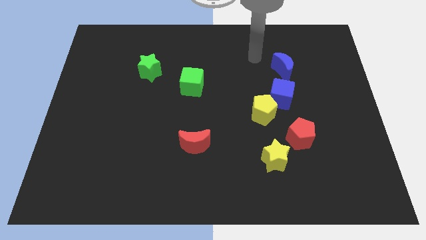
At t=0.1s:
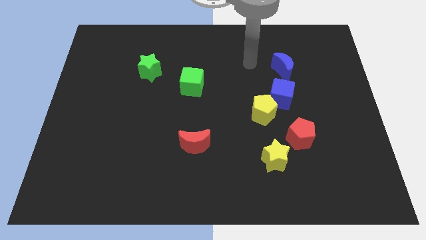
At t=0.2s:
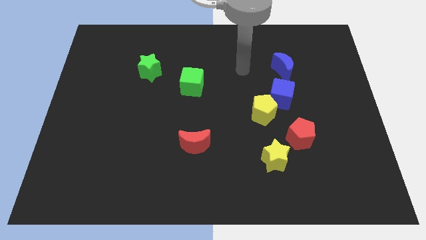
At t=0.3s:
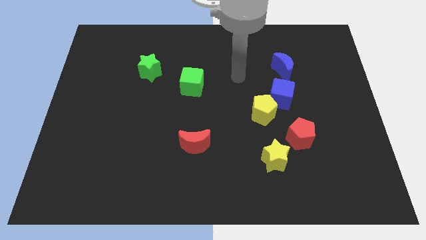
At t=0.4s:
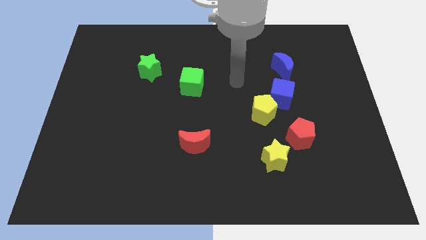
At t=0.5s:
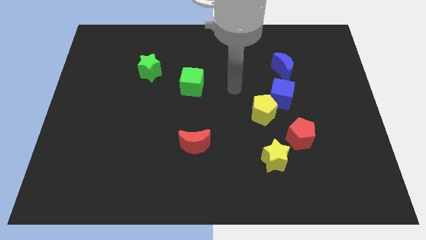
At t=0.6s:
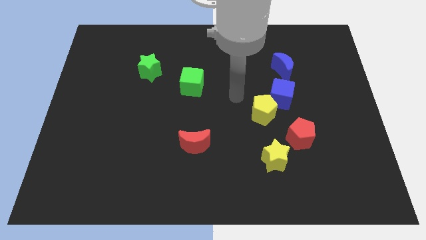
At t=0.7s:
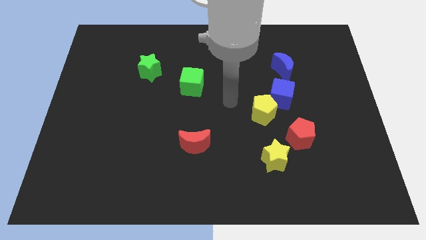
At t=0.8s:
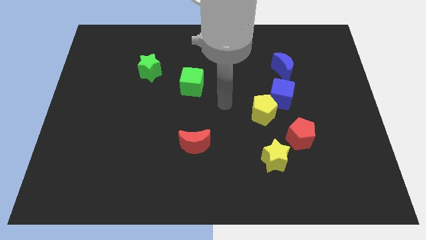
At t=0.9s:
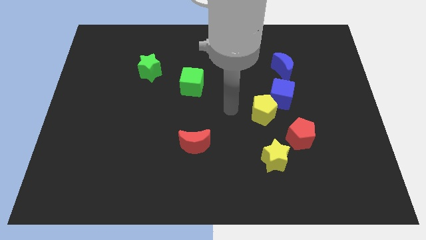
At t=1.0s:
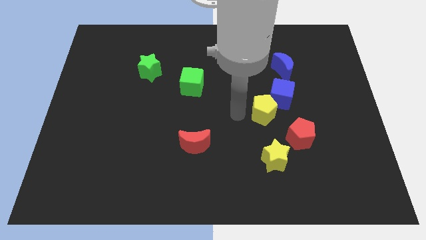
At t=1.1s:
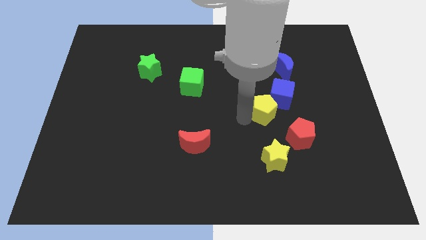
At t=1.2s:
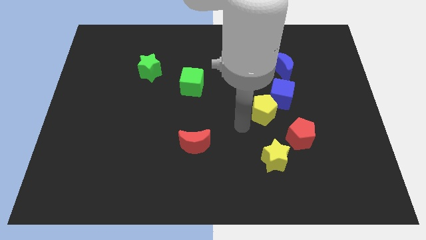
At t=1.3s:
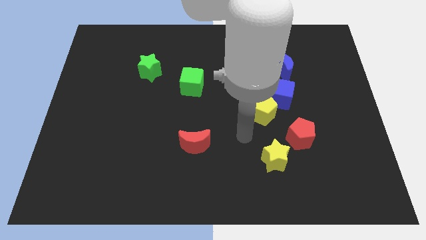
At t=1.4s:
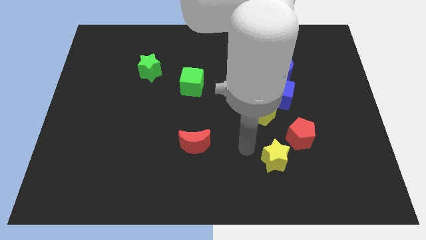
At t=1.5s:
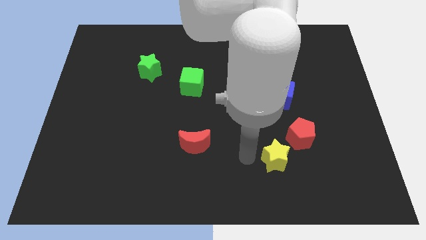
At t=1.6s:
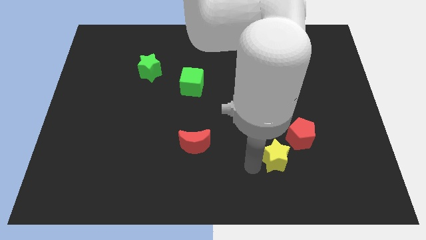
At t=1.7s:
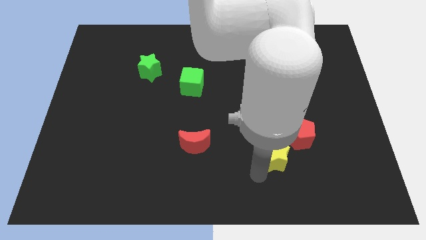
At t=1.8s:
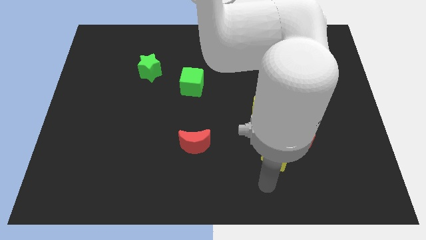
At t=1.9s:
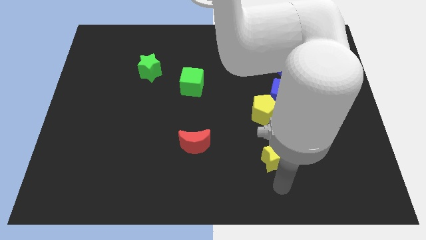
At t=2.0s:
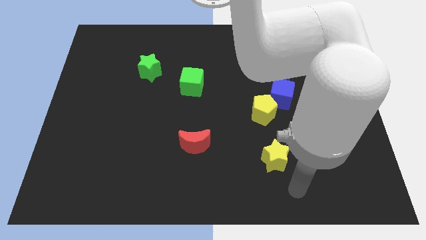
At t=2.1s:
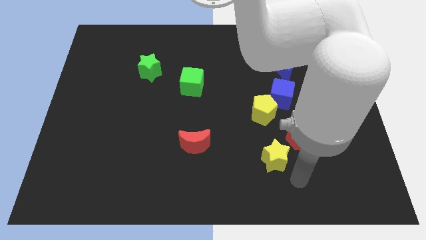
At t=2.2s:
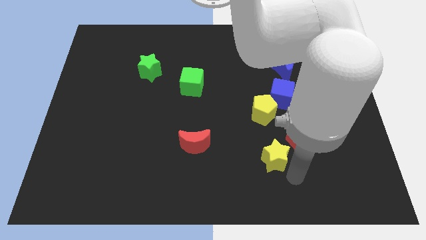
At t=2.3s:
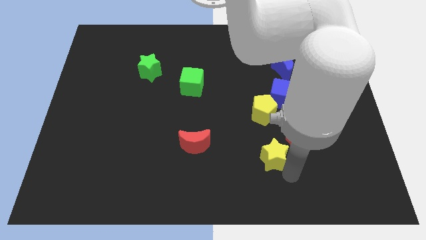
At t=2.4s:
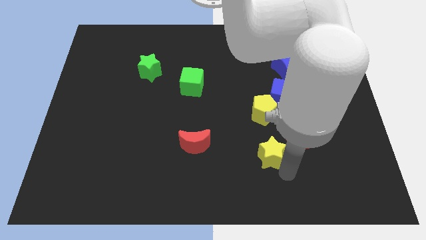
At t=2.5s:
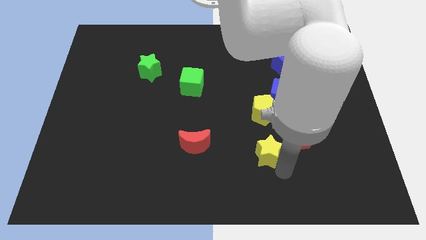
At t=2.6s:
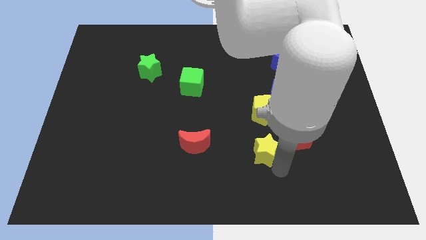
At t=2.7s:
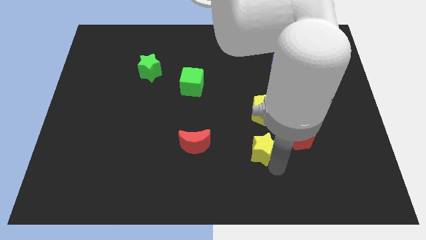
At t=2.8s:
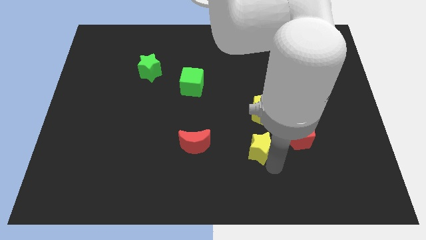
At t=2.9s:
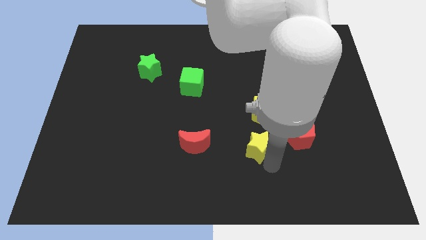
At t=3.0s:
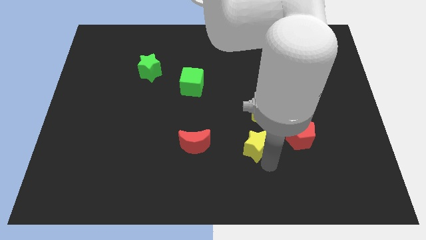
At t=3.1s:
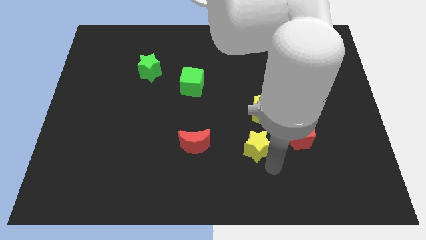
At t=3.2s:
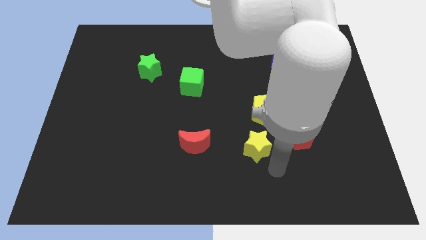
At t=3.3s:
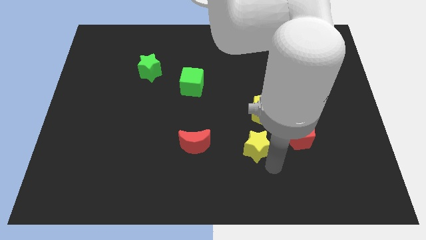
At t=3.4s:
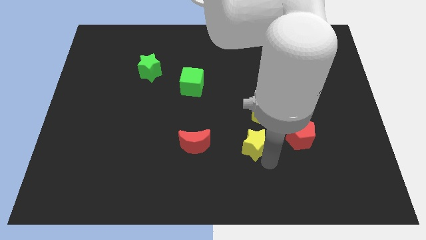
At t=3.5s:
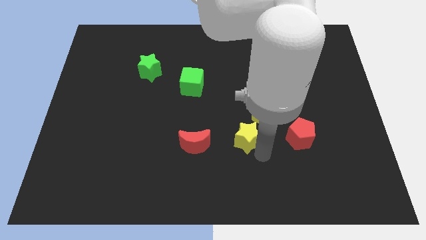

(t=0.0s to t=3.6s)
slide the yellow star up and left a little bit

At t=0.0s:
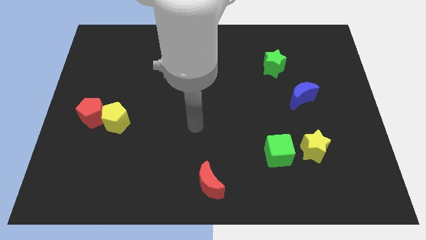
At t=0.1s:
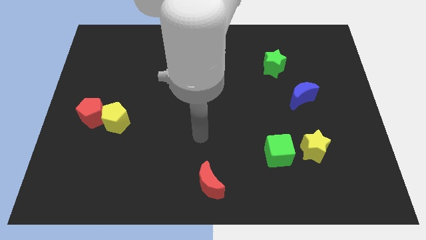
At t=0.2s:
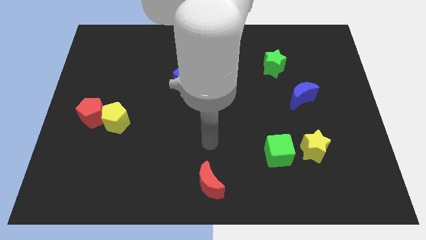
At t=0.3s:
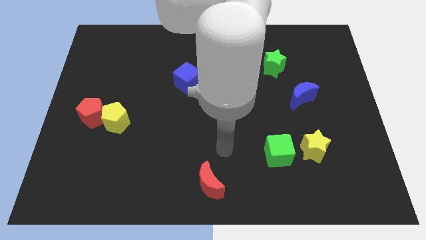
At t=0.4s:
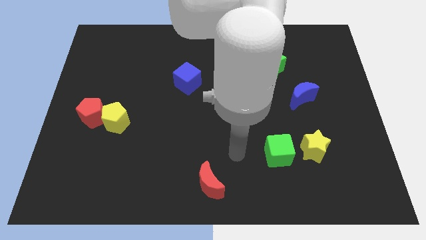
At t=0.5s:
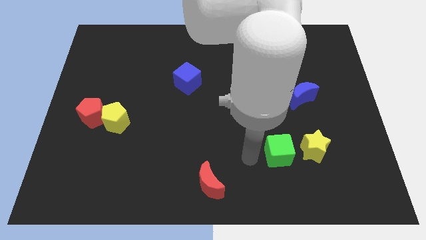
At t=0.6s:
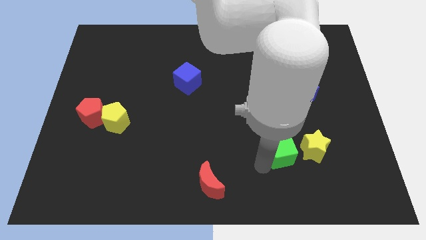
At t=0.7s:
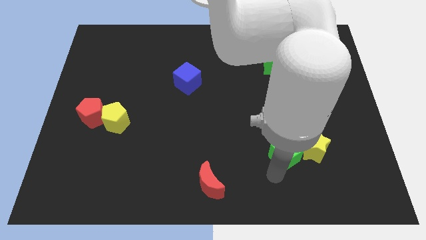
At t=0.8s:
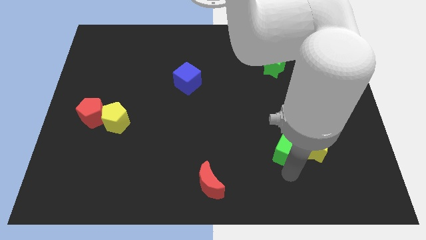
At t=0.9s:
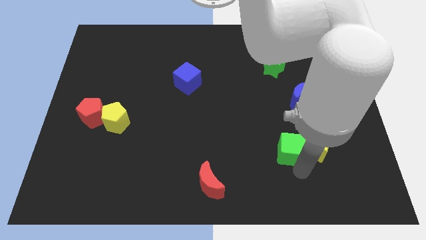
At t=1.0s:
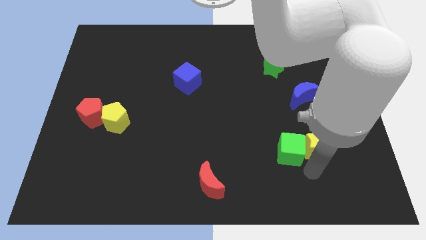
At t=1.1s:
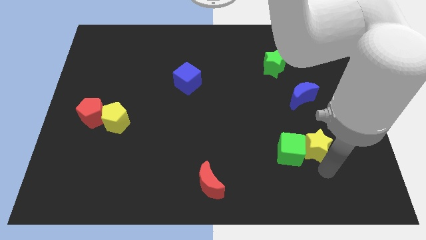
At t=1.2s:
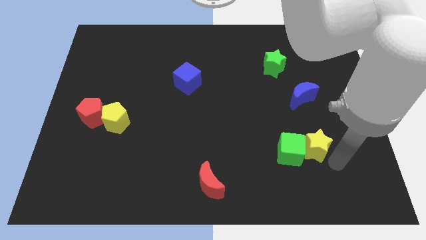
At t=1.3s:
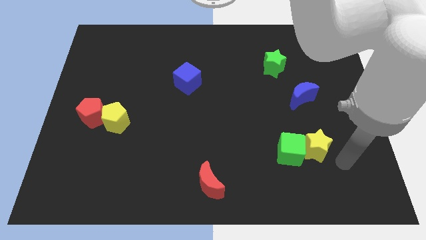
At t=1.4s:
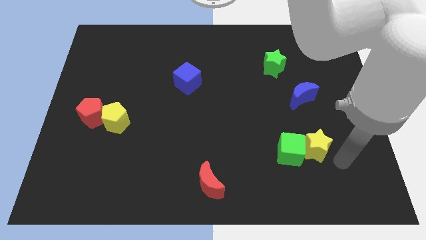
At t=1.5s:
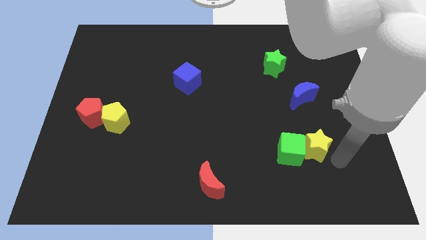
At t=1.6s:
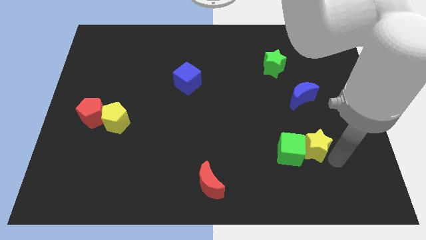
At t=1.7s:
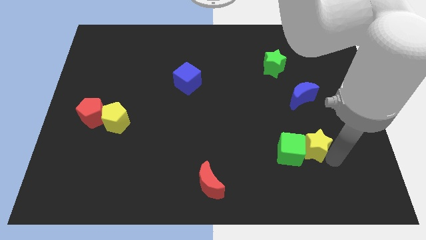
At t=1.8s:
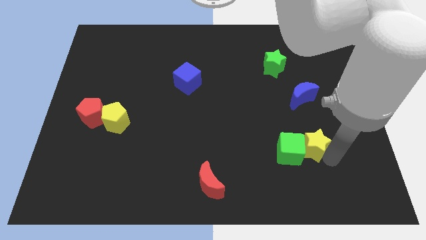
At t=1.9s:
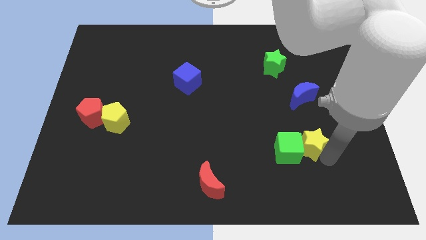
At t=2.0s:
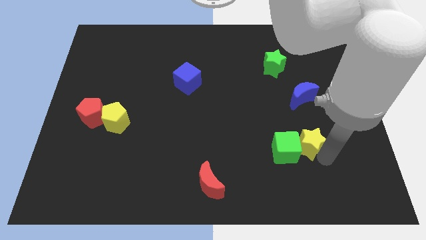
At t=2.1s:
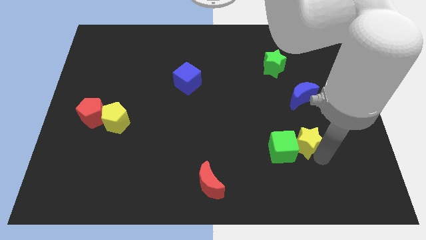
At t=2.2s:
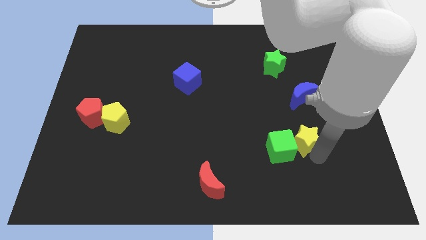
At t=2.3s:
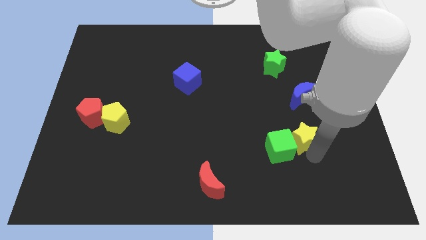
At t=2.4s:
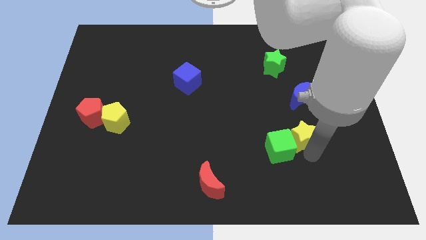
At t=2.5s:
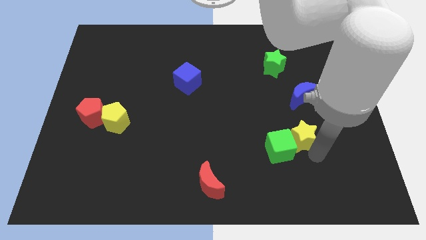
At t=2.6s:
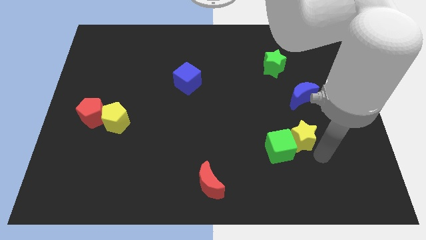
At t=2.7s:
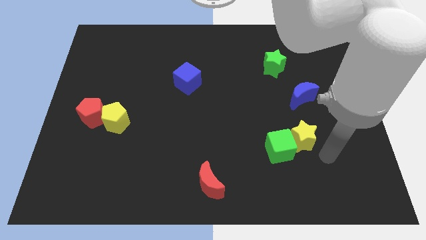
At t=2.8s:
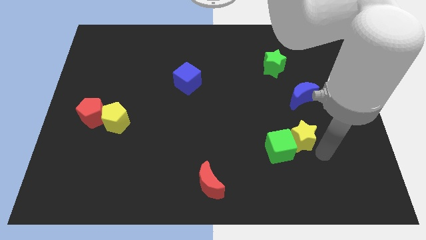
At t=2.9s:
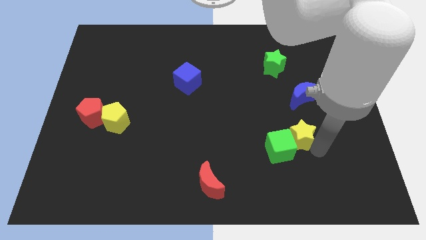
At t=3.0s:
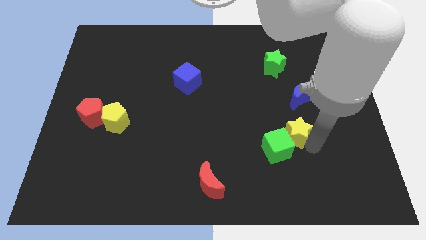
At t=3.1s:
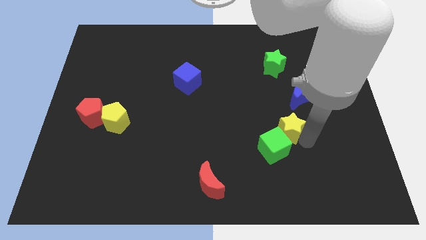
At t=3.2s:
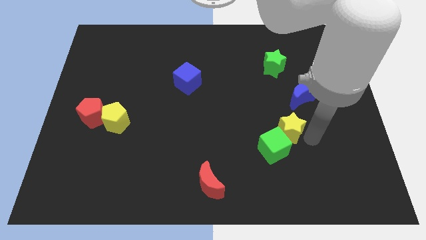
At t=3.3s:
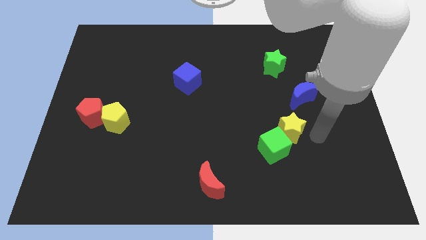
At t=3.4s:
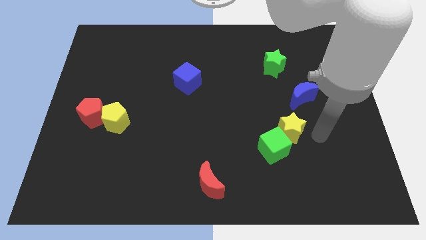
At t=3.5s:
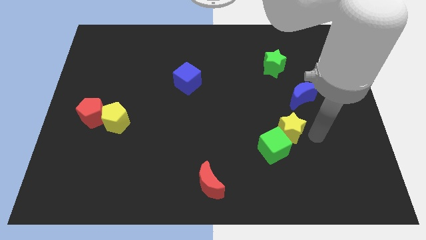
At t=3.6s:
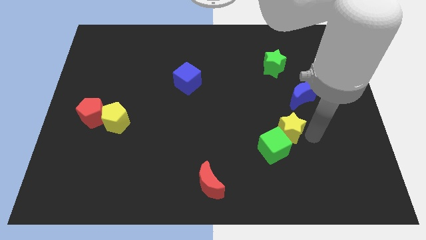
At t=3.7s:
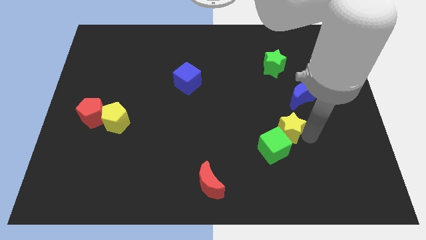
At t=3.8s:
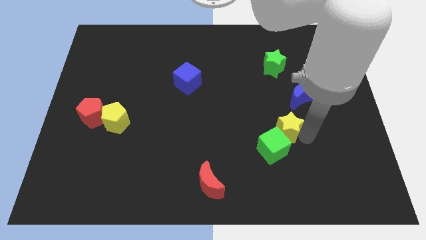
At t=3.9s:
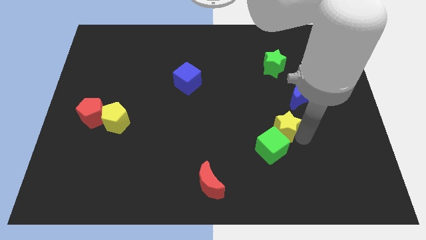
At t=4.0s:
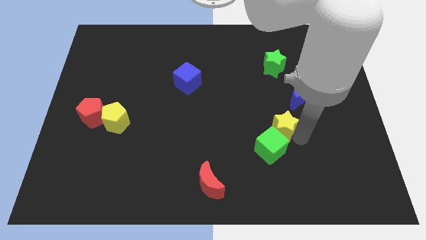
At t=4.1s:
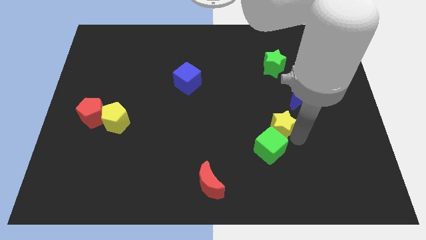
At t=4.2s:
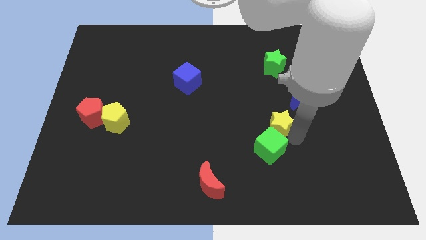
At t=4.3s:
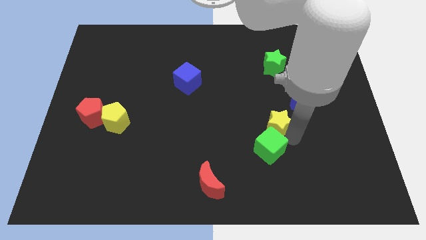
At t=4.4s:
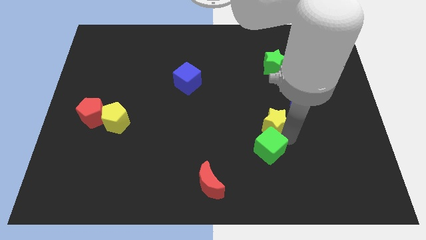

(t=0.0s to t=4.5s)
slide the yellow star somewhat to the left

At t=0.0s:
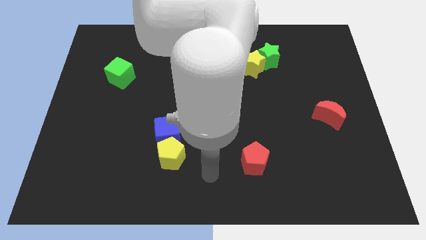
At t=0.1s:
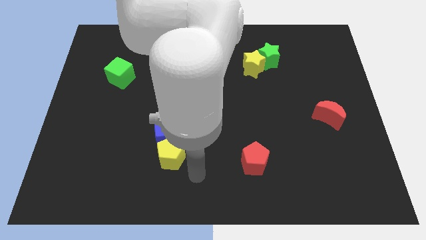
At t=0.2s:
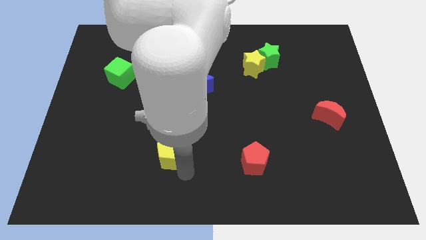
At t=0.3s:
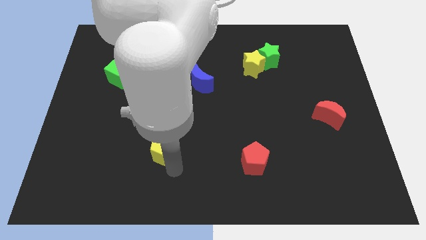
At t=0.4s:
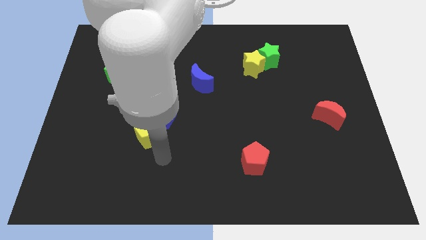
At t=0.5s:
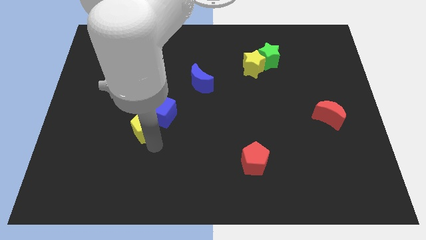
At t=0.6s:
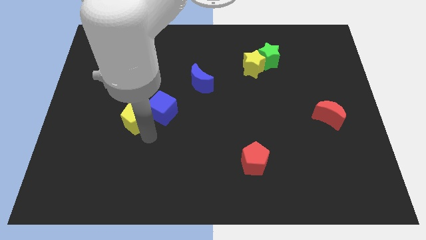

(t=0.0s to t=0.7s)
move the blue cube upwards a bit
